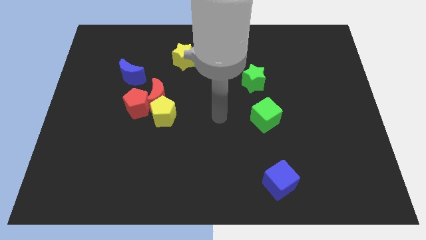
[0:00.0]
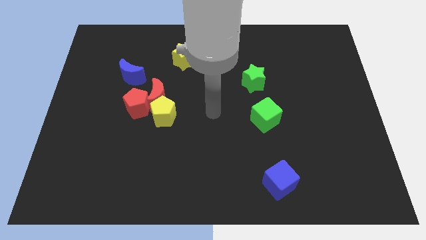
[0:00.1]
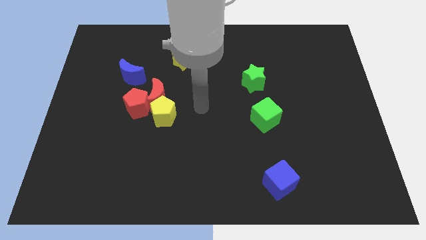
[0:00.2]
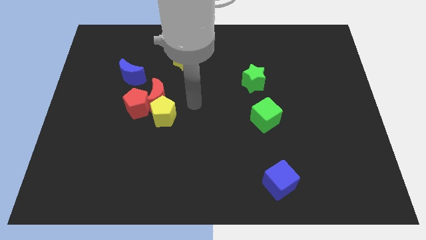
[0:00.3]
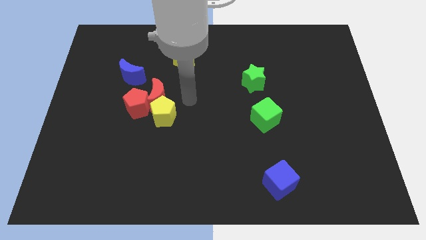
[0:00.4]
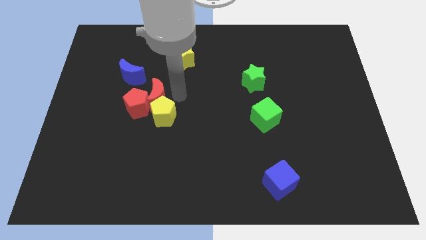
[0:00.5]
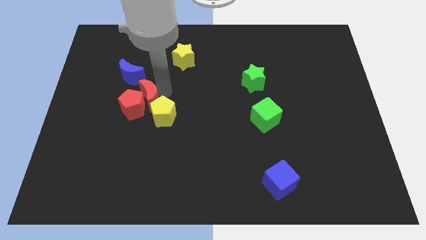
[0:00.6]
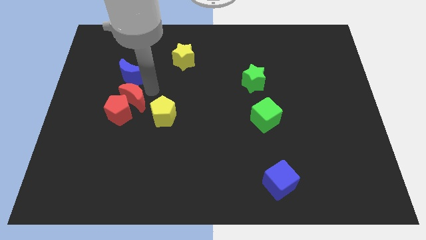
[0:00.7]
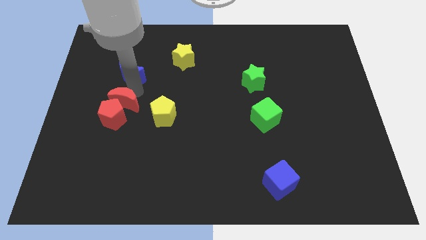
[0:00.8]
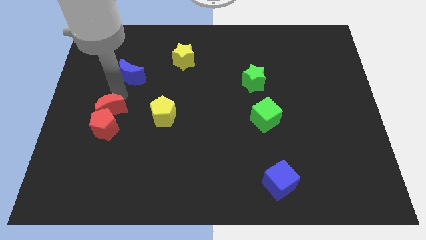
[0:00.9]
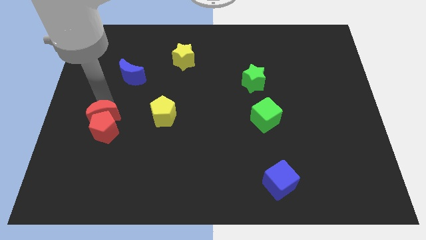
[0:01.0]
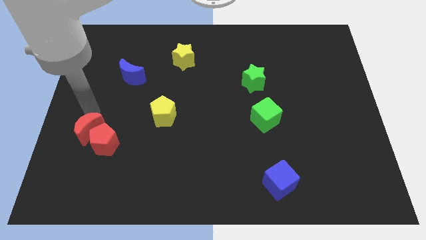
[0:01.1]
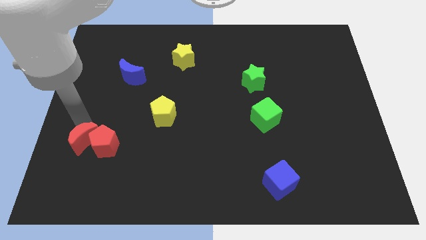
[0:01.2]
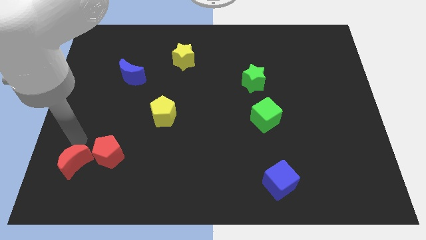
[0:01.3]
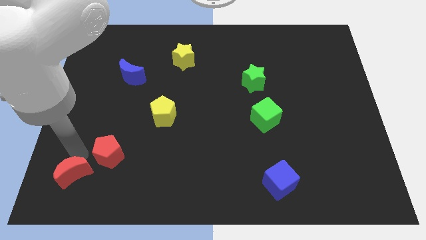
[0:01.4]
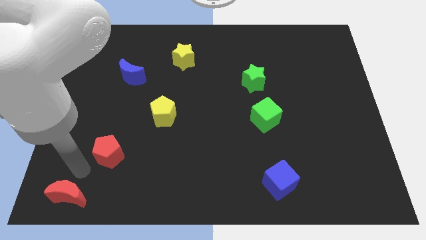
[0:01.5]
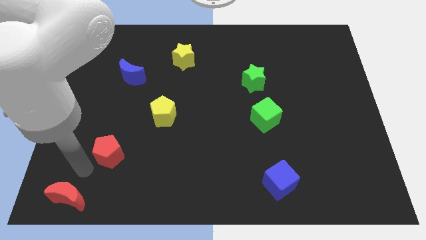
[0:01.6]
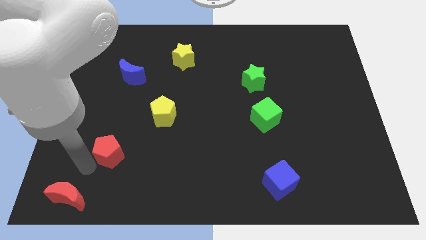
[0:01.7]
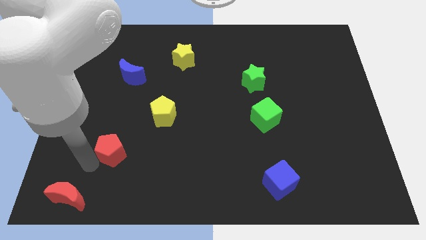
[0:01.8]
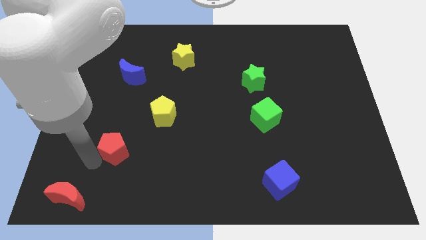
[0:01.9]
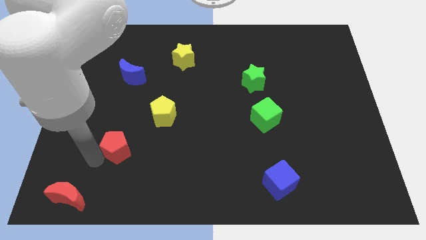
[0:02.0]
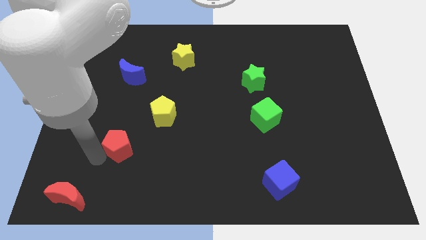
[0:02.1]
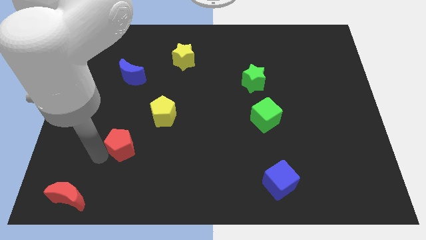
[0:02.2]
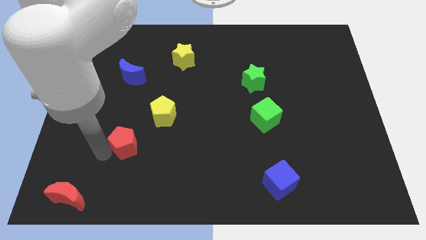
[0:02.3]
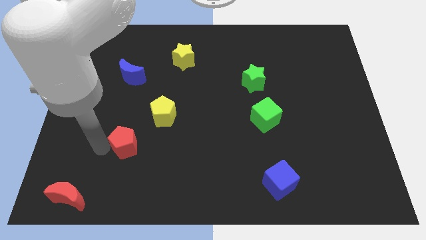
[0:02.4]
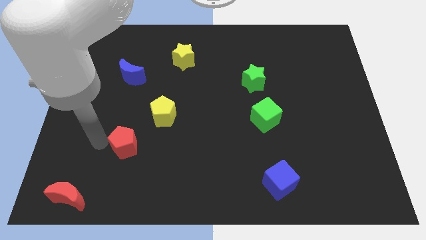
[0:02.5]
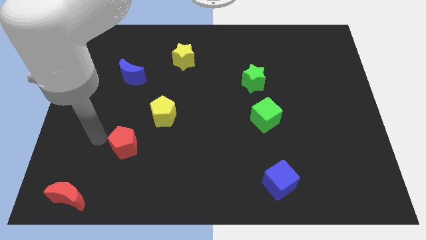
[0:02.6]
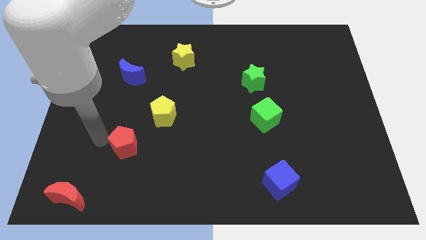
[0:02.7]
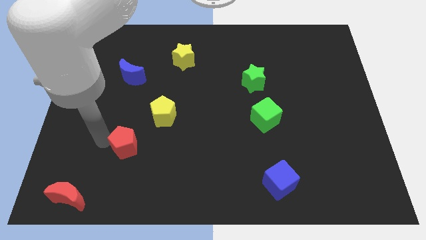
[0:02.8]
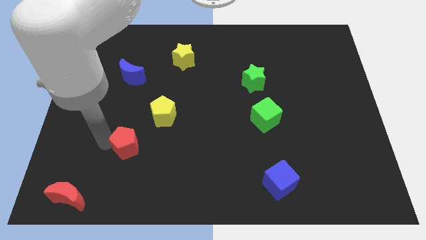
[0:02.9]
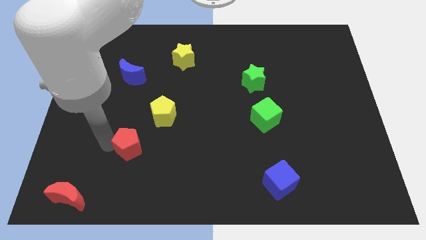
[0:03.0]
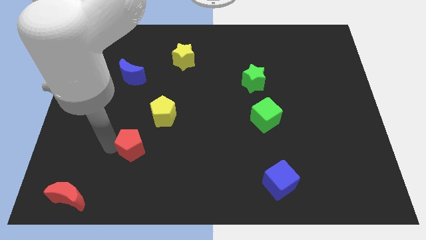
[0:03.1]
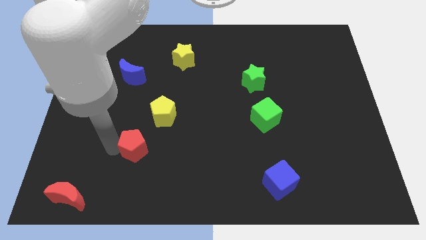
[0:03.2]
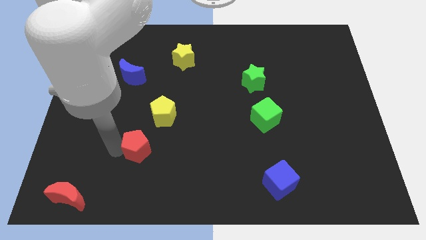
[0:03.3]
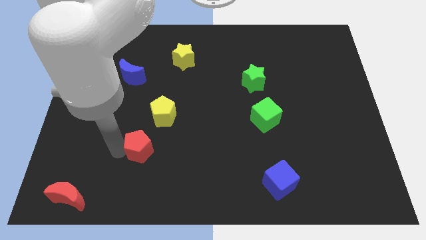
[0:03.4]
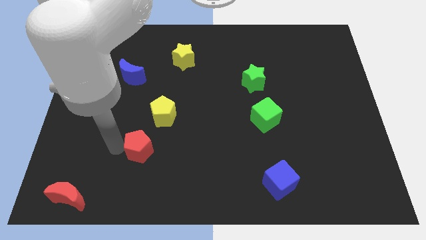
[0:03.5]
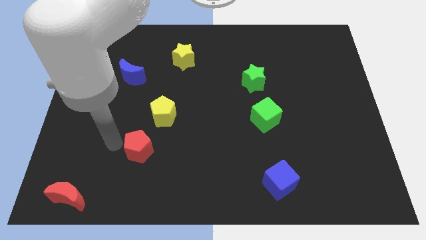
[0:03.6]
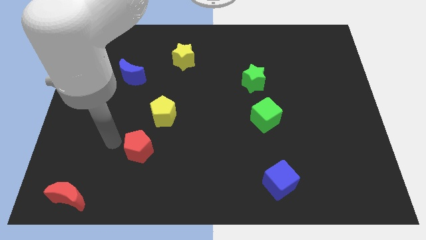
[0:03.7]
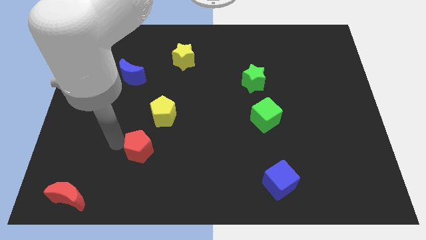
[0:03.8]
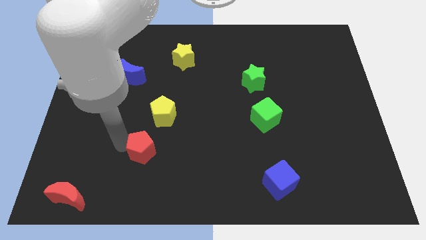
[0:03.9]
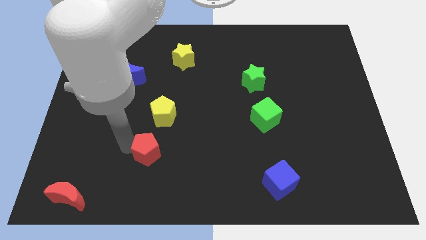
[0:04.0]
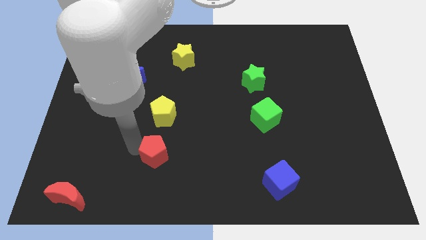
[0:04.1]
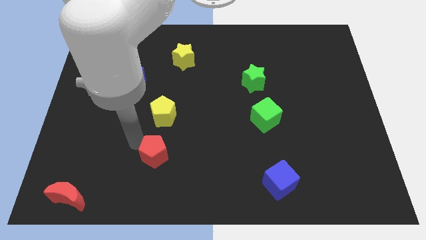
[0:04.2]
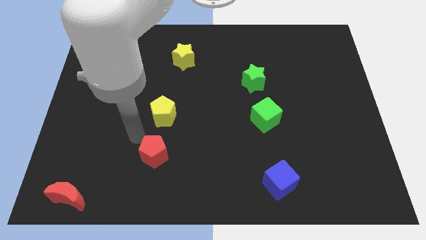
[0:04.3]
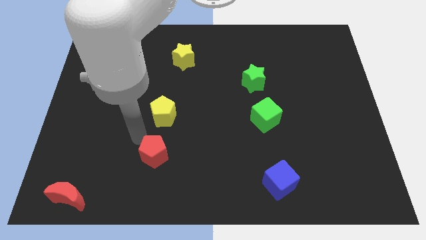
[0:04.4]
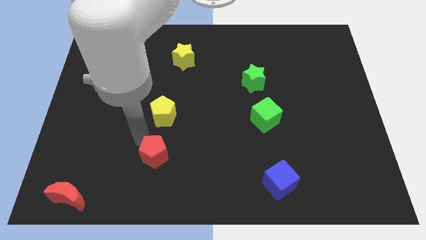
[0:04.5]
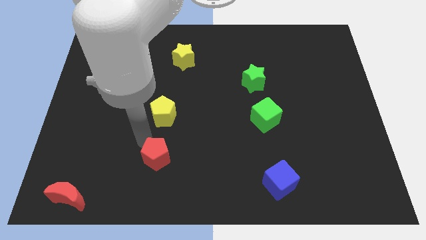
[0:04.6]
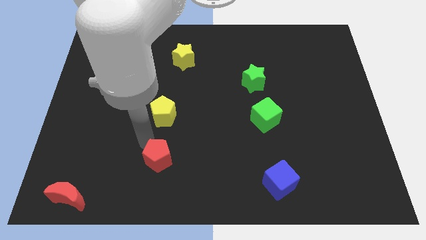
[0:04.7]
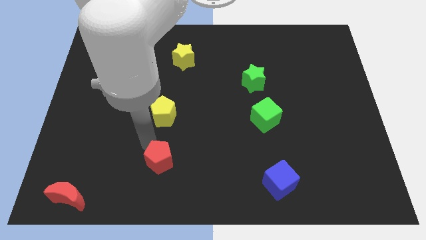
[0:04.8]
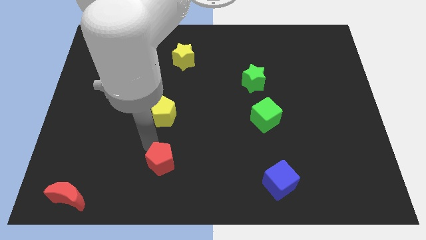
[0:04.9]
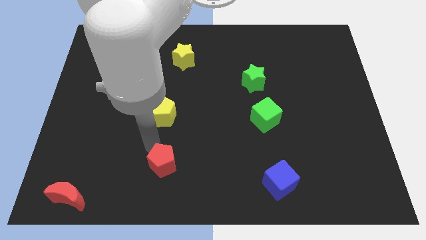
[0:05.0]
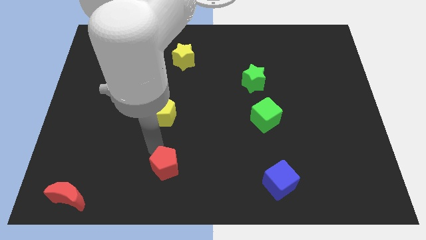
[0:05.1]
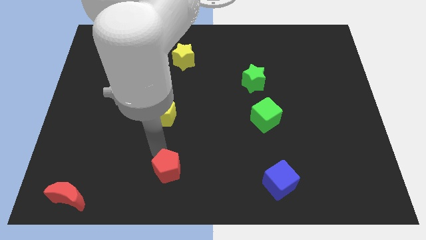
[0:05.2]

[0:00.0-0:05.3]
push the red pentagon to the bottom side

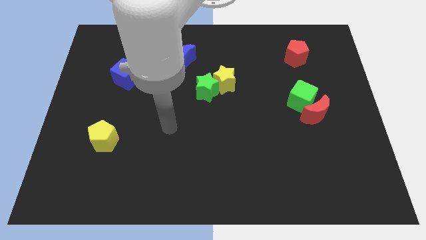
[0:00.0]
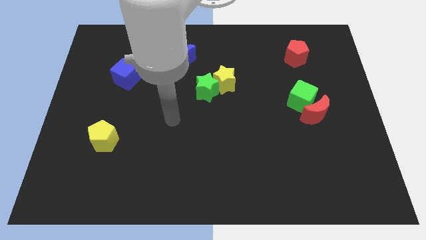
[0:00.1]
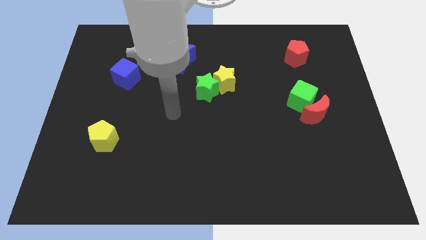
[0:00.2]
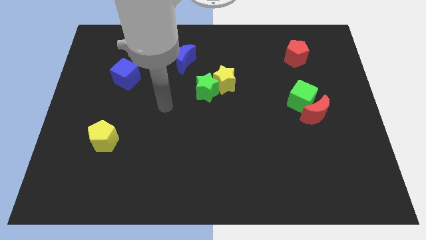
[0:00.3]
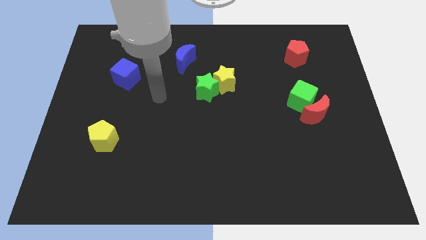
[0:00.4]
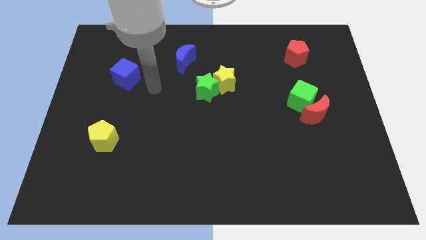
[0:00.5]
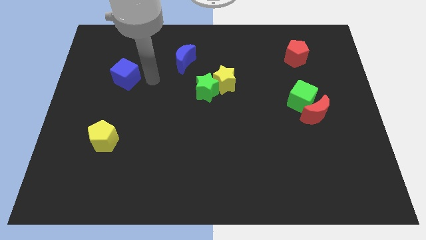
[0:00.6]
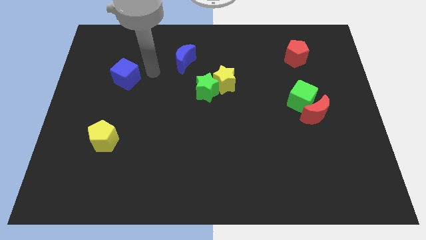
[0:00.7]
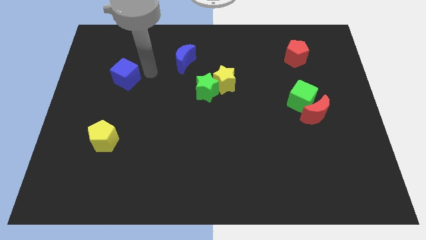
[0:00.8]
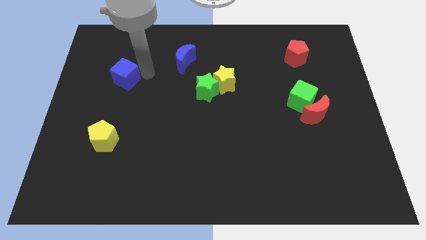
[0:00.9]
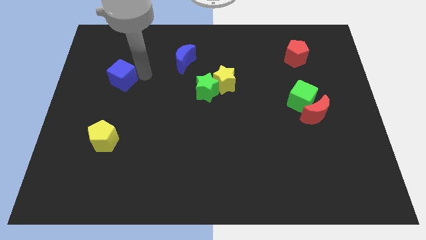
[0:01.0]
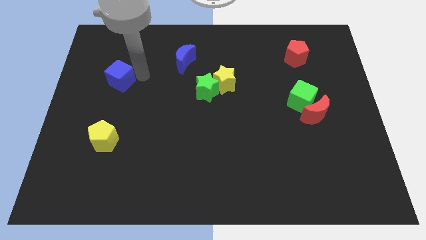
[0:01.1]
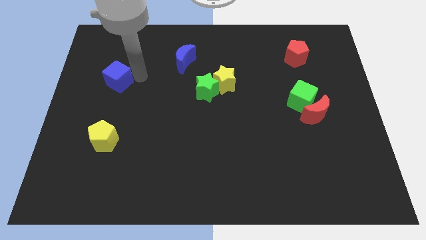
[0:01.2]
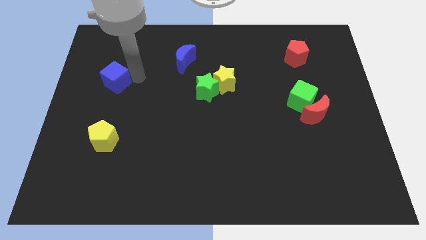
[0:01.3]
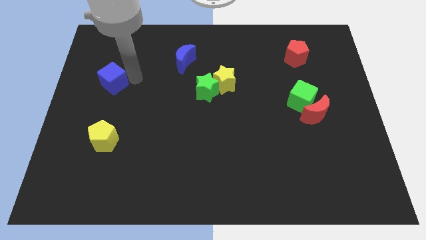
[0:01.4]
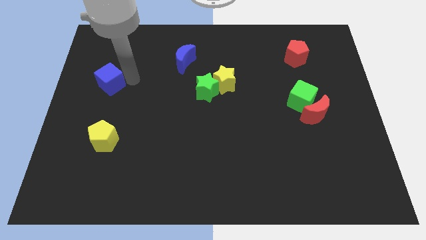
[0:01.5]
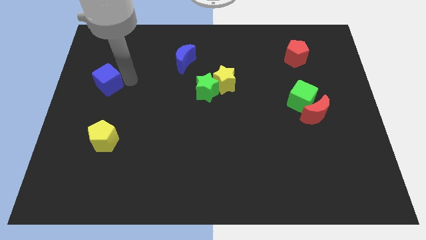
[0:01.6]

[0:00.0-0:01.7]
push the blue cube to the center left
